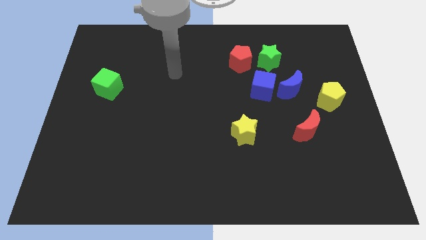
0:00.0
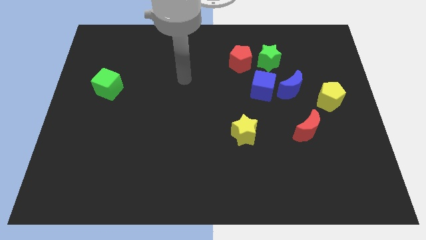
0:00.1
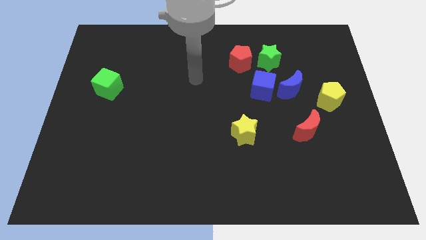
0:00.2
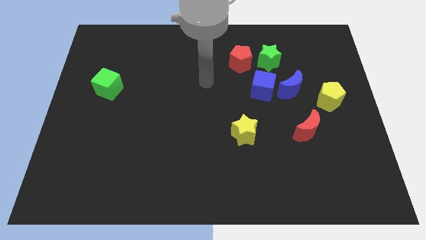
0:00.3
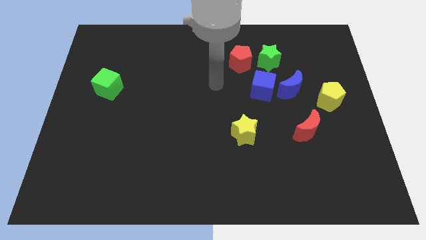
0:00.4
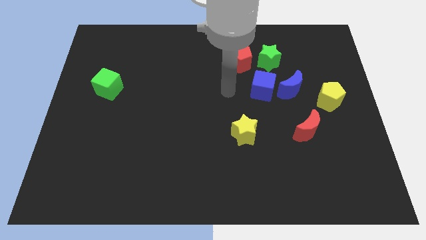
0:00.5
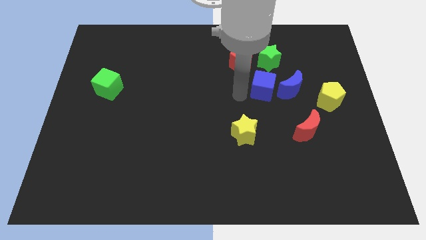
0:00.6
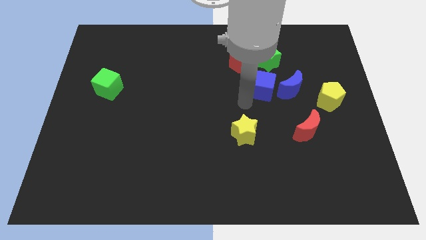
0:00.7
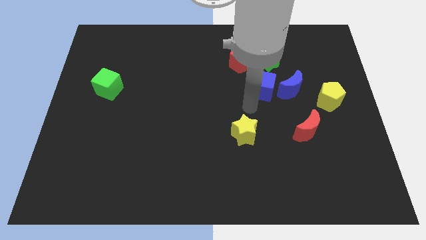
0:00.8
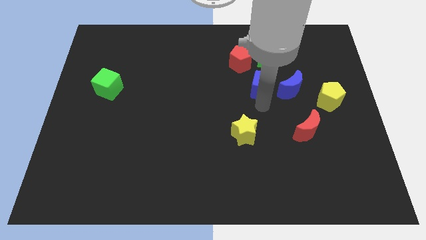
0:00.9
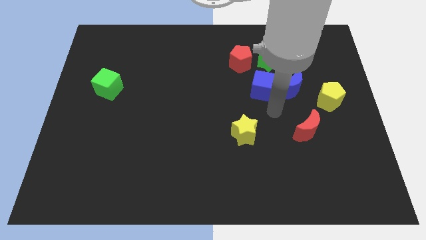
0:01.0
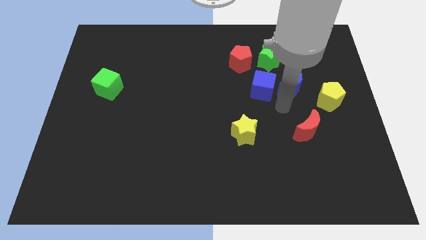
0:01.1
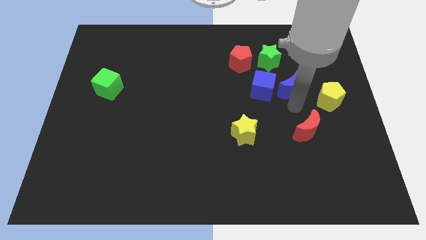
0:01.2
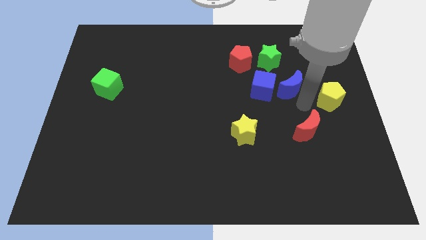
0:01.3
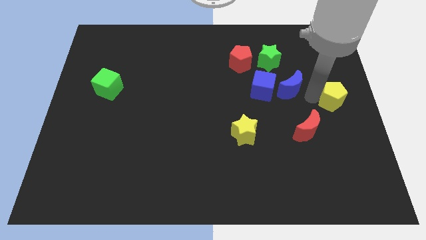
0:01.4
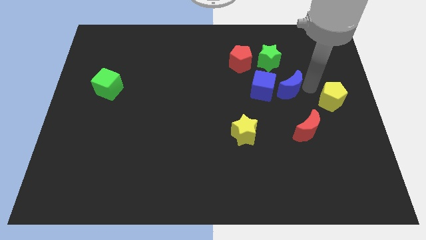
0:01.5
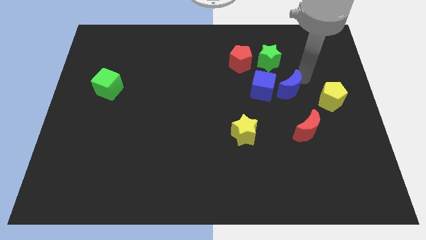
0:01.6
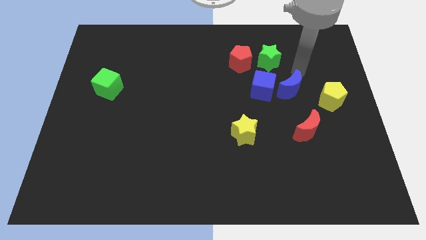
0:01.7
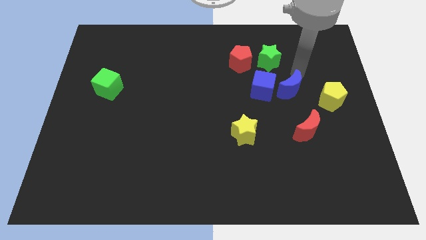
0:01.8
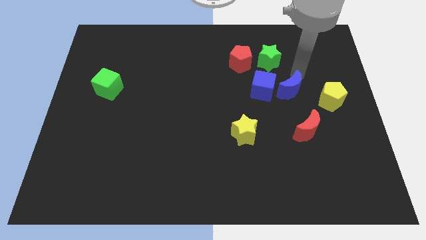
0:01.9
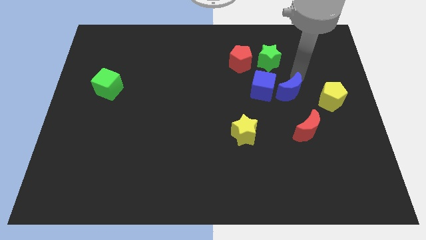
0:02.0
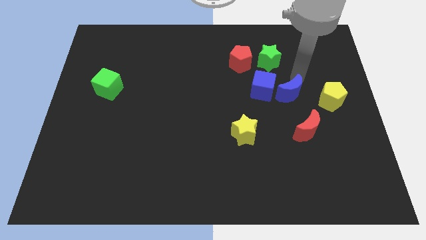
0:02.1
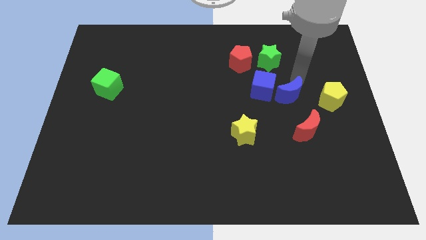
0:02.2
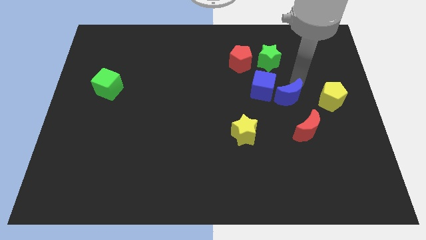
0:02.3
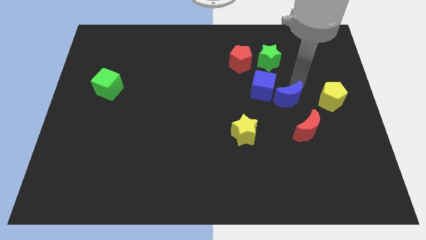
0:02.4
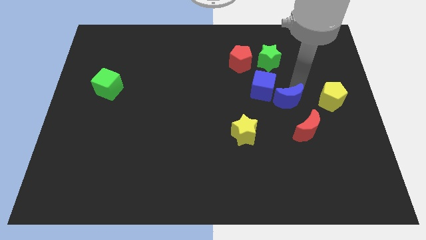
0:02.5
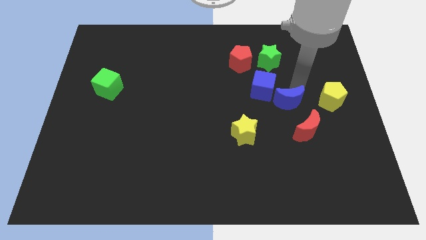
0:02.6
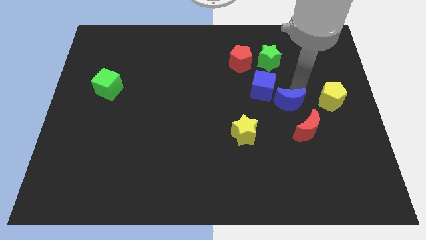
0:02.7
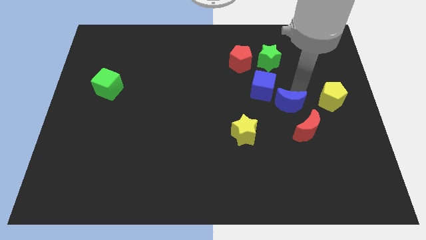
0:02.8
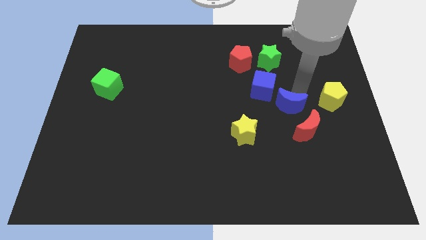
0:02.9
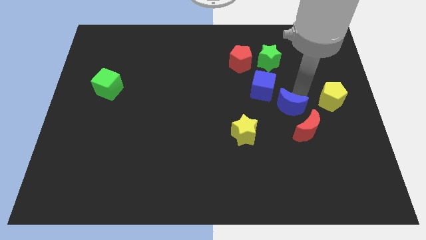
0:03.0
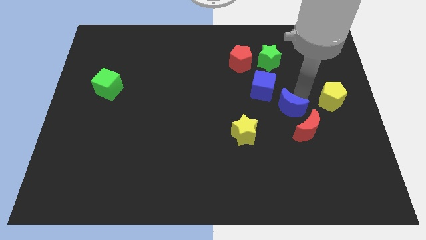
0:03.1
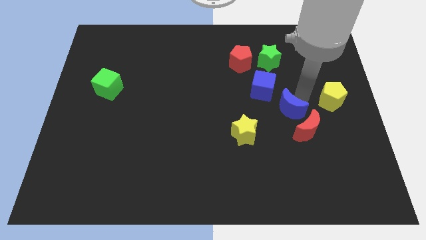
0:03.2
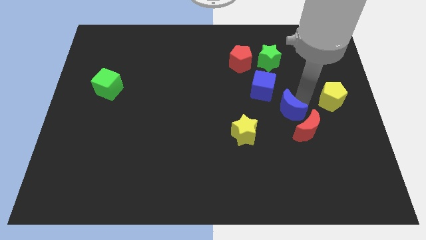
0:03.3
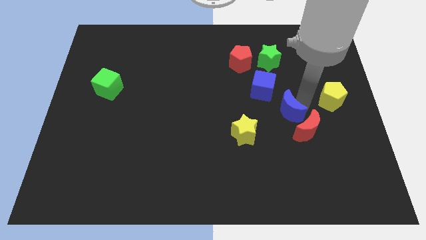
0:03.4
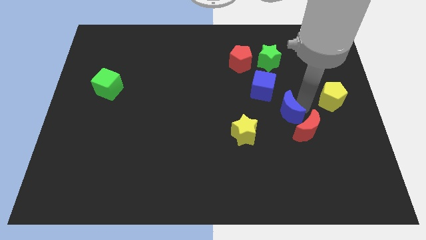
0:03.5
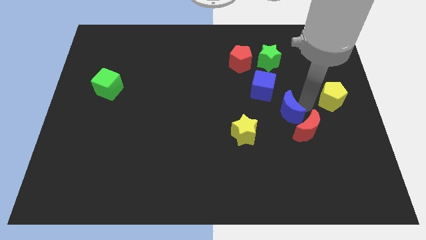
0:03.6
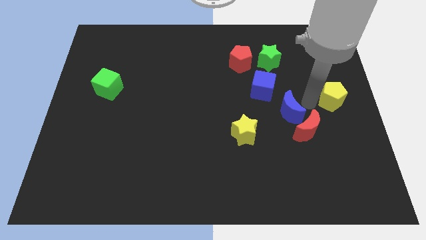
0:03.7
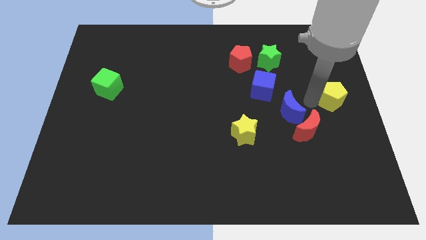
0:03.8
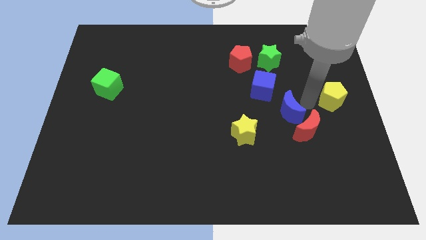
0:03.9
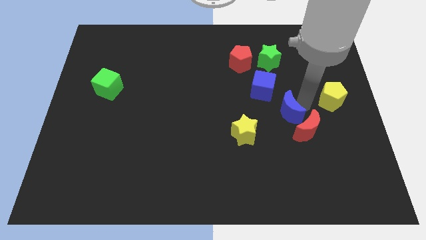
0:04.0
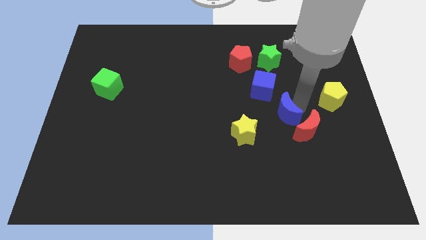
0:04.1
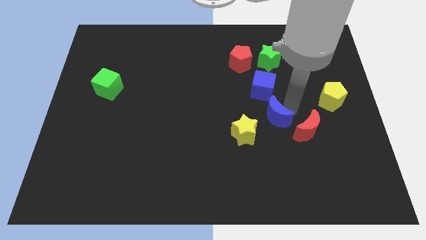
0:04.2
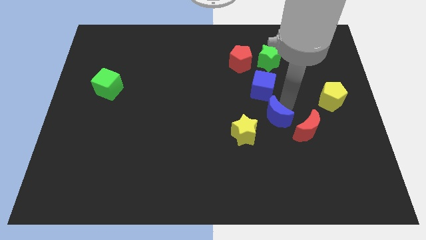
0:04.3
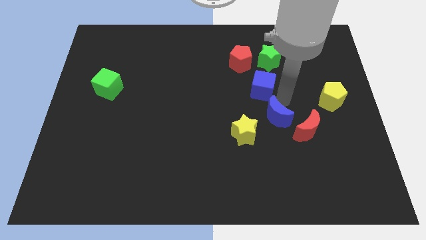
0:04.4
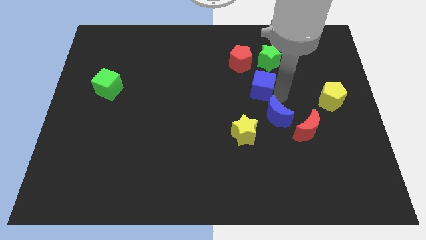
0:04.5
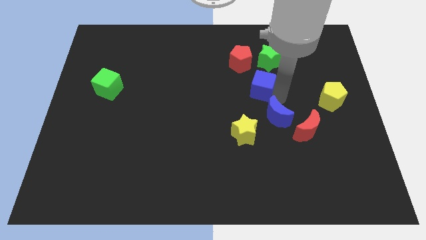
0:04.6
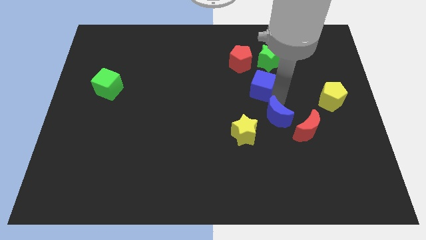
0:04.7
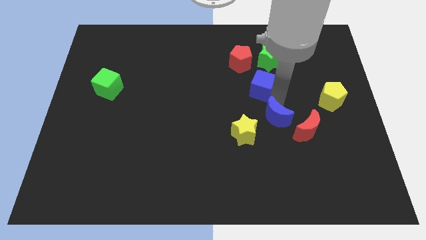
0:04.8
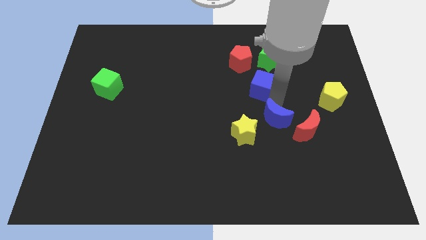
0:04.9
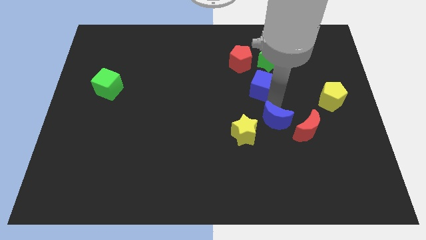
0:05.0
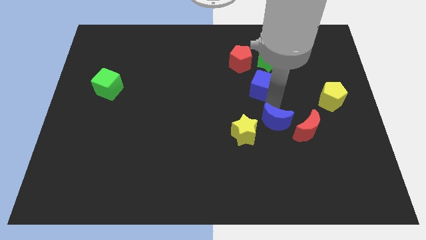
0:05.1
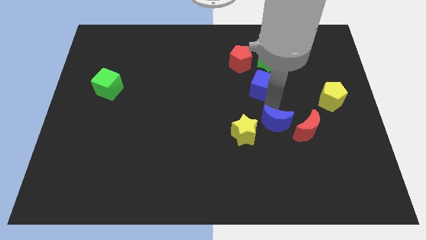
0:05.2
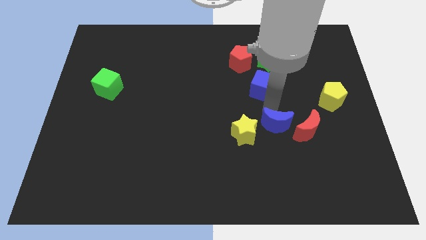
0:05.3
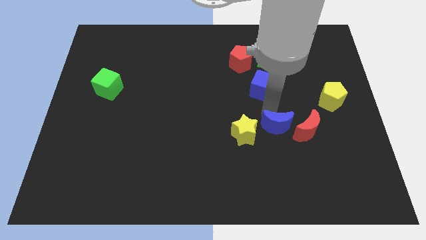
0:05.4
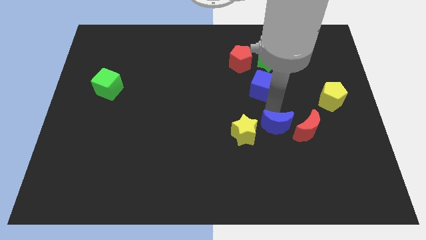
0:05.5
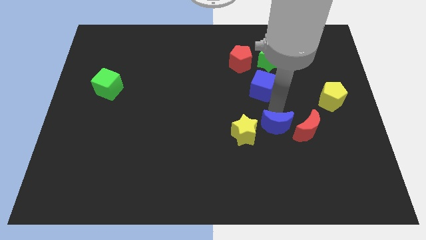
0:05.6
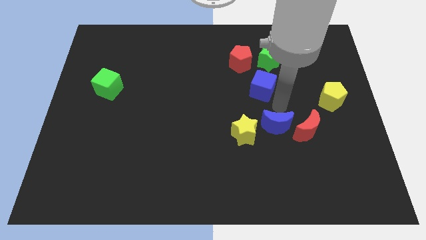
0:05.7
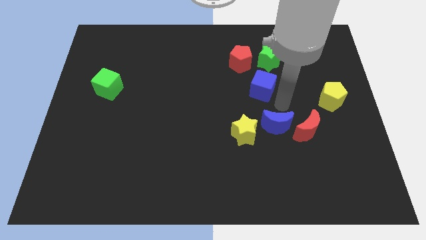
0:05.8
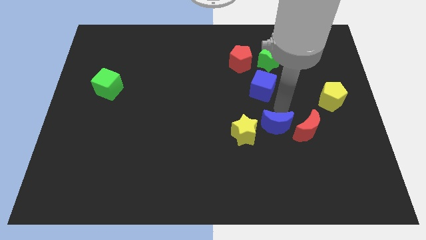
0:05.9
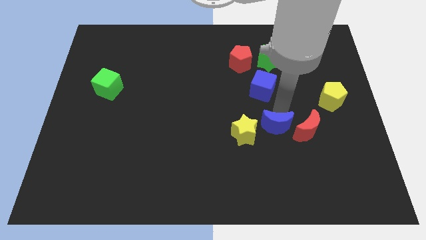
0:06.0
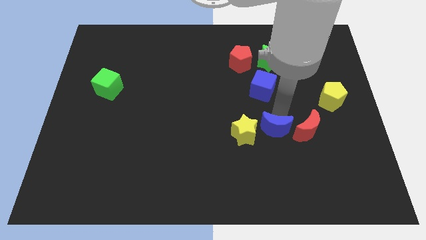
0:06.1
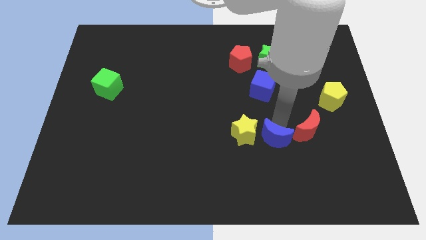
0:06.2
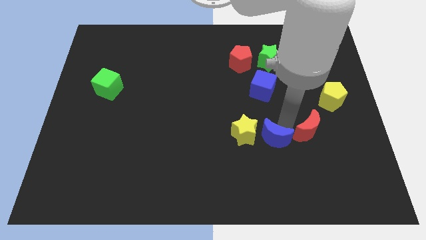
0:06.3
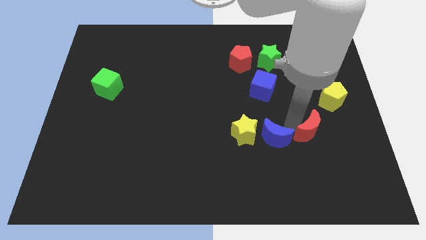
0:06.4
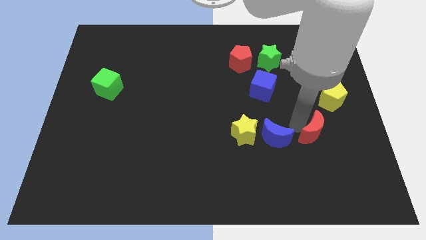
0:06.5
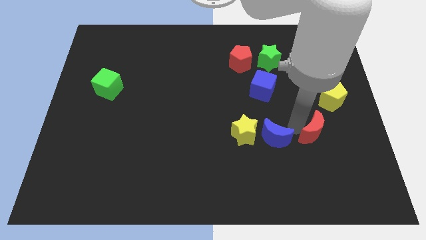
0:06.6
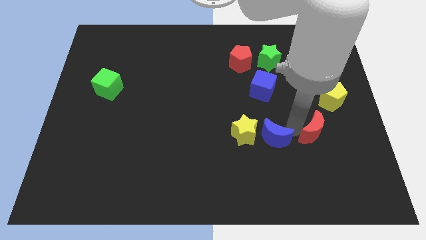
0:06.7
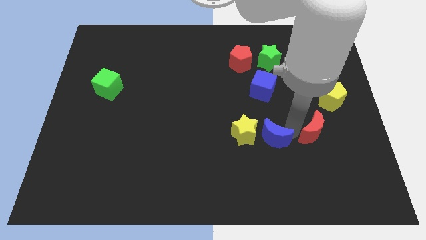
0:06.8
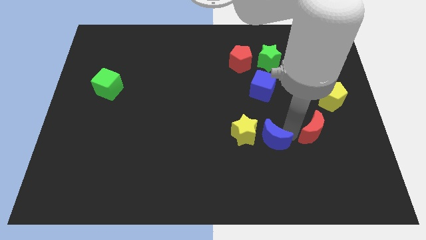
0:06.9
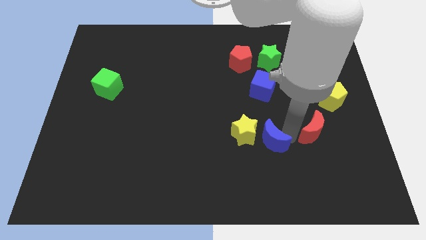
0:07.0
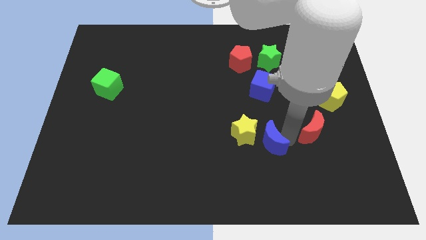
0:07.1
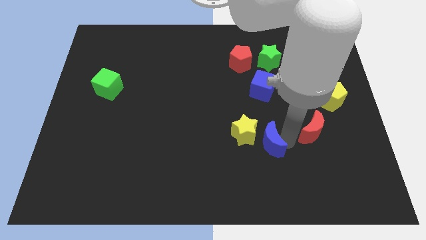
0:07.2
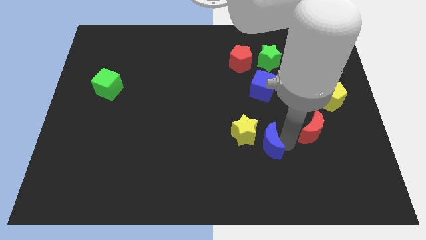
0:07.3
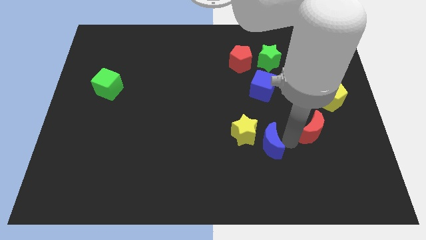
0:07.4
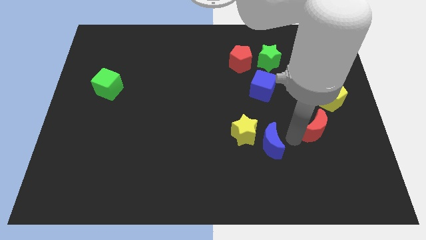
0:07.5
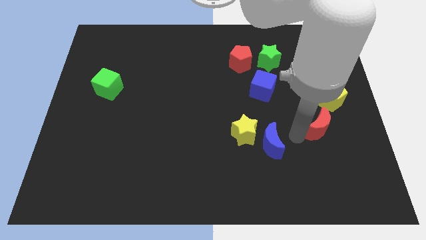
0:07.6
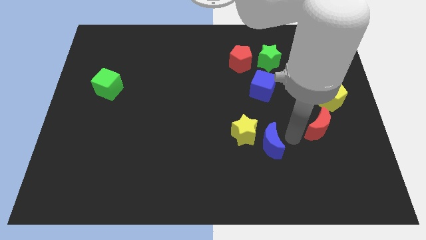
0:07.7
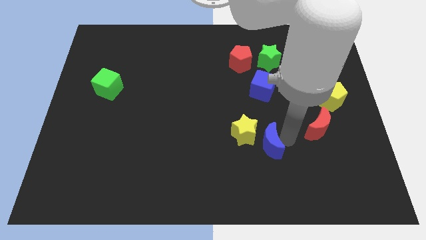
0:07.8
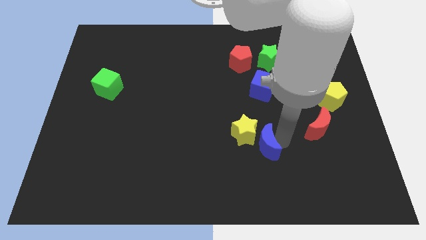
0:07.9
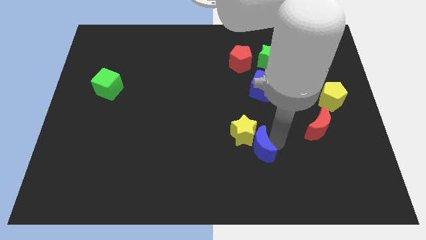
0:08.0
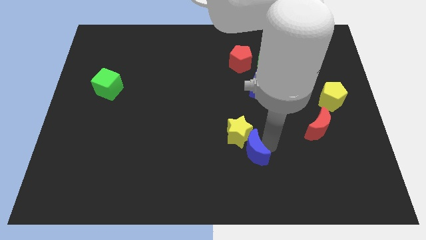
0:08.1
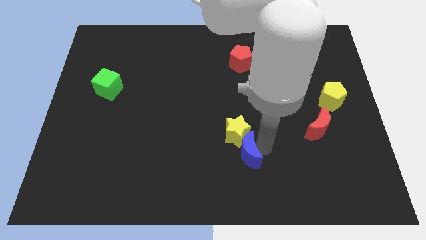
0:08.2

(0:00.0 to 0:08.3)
push the blue moon down and left
